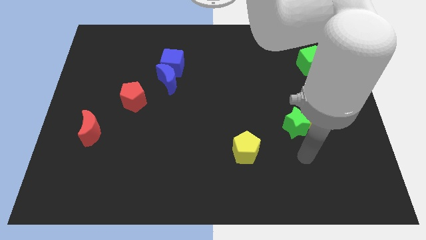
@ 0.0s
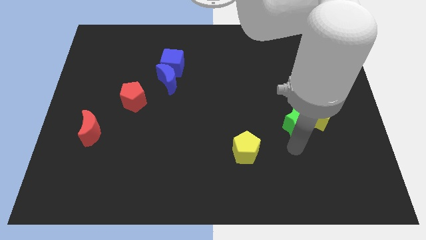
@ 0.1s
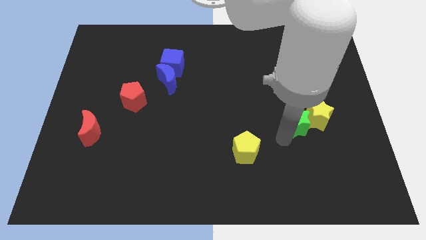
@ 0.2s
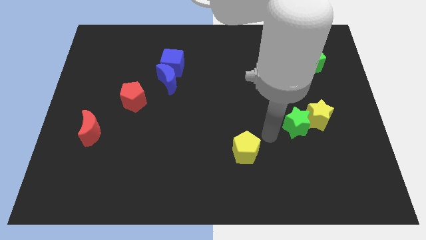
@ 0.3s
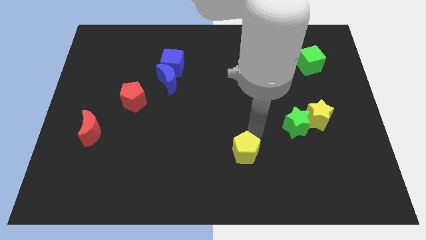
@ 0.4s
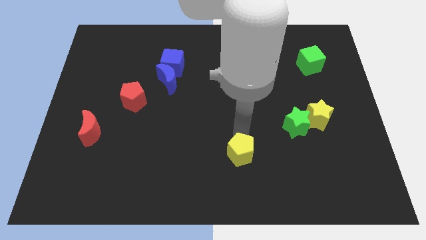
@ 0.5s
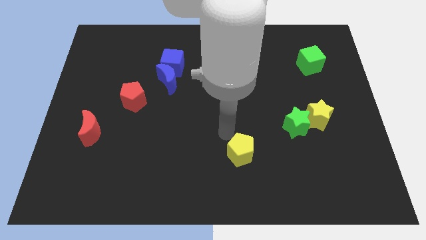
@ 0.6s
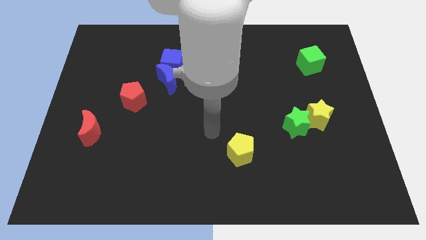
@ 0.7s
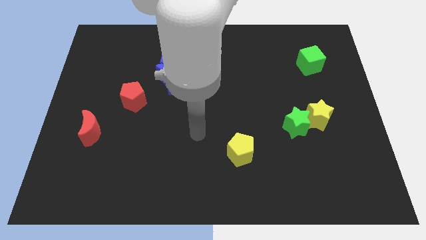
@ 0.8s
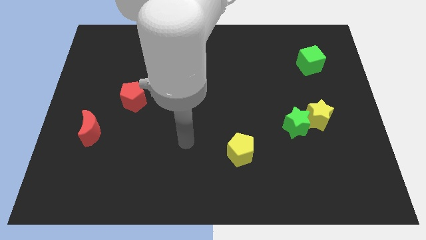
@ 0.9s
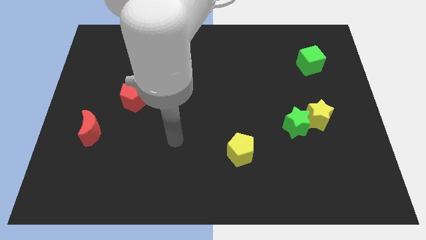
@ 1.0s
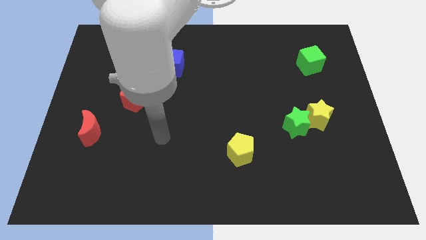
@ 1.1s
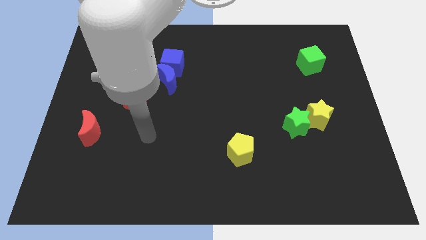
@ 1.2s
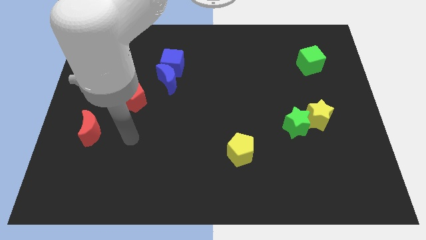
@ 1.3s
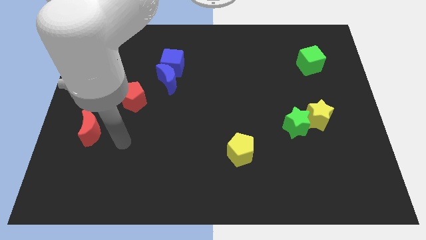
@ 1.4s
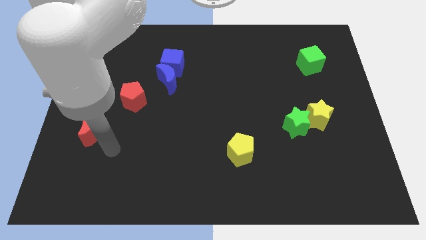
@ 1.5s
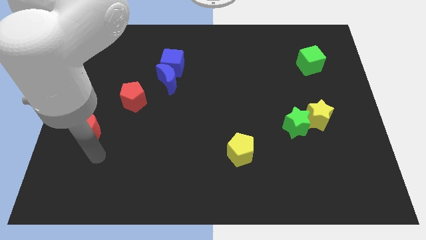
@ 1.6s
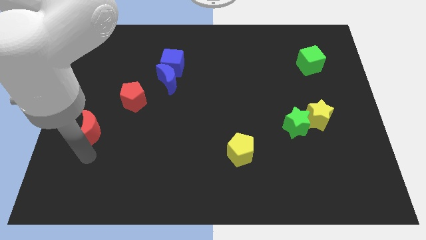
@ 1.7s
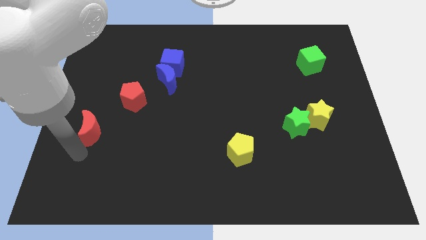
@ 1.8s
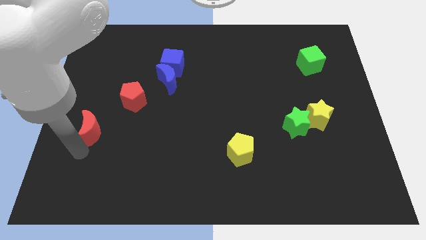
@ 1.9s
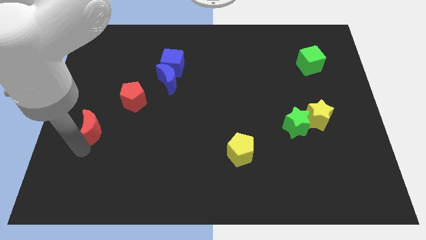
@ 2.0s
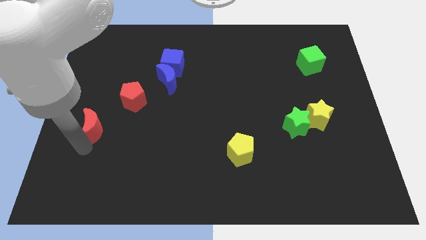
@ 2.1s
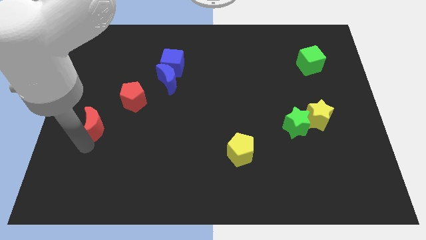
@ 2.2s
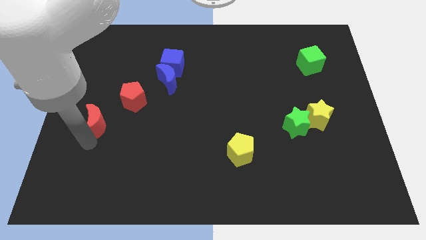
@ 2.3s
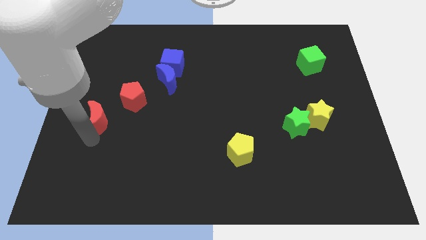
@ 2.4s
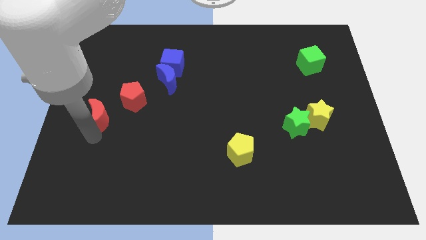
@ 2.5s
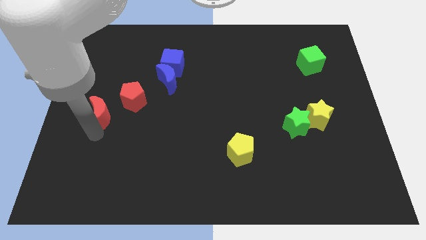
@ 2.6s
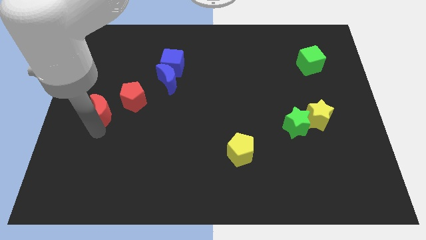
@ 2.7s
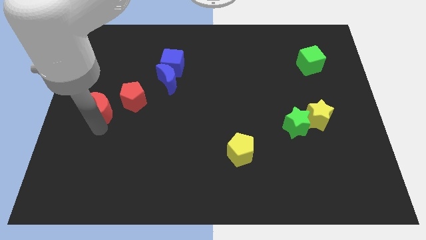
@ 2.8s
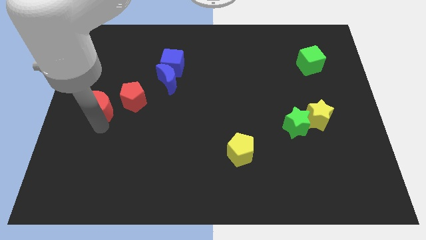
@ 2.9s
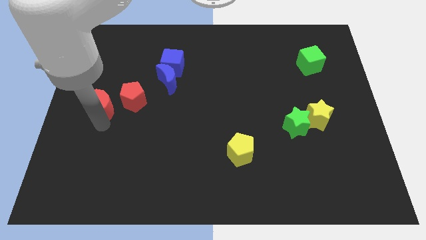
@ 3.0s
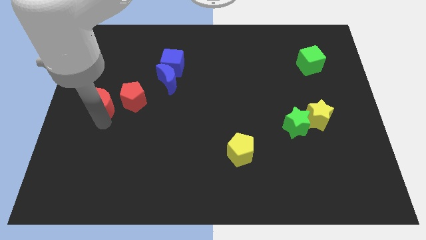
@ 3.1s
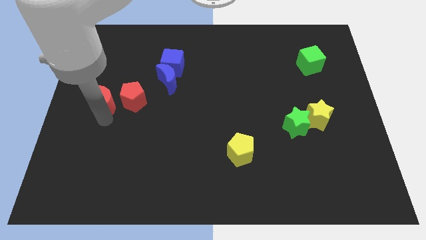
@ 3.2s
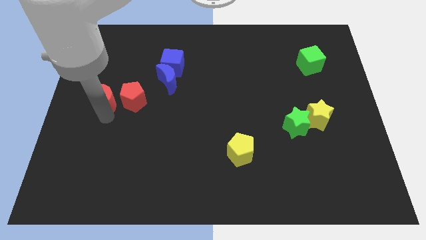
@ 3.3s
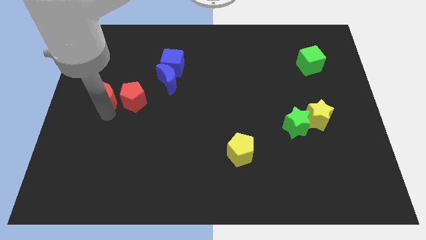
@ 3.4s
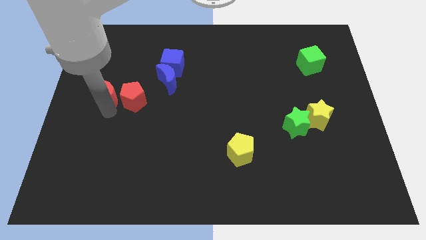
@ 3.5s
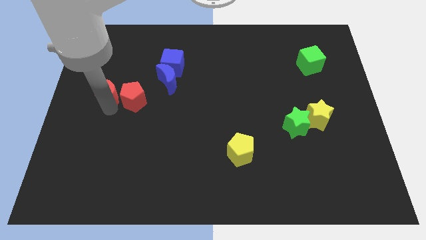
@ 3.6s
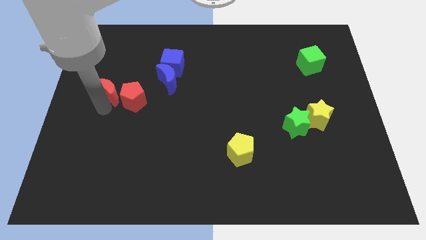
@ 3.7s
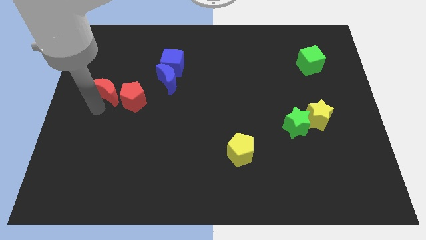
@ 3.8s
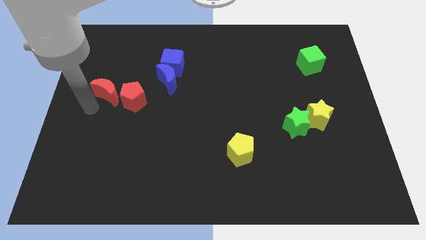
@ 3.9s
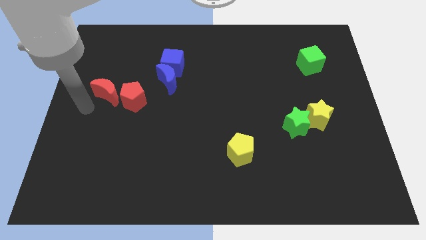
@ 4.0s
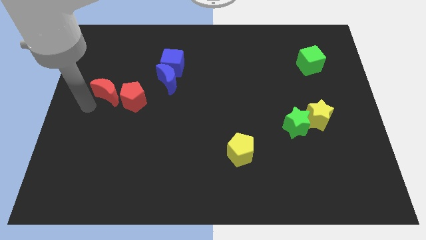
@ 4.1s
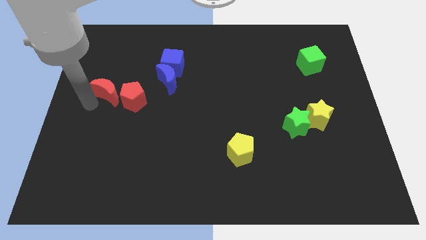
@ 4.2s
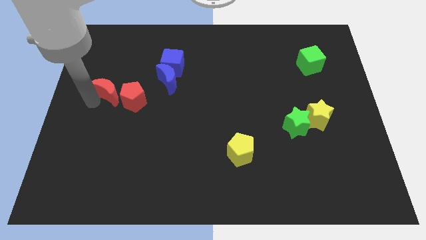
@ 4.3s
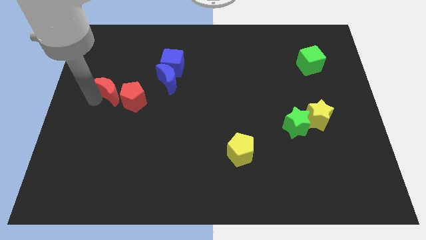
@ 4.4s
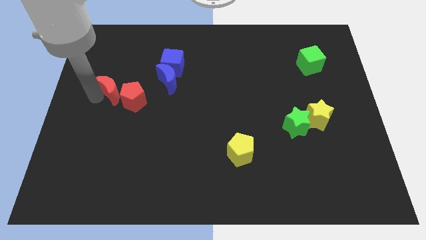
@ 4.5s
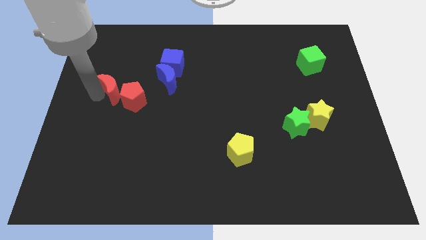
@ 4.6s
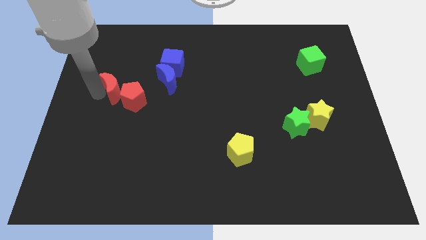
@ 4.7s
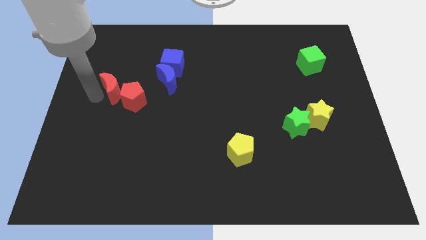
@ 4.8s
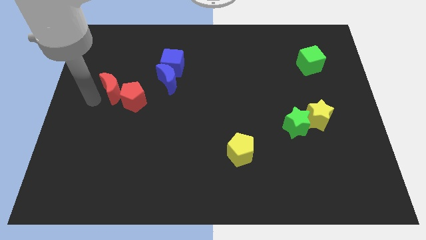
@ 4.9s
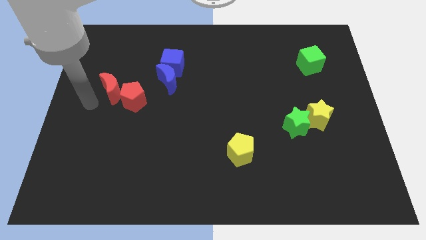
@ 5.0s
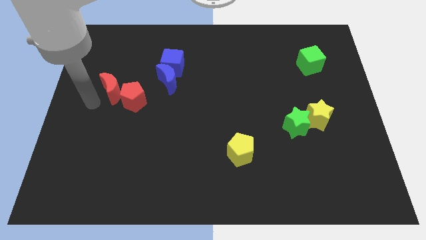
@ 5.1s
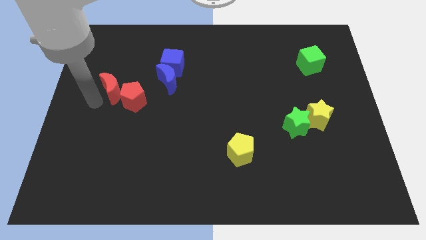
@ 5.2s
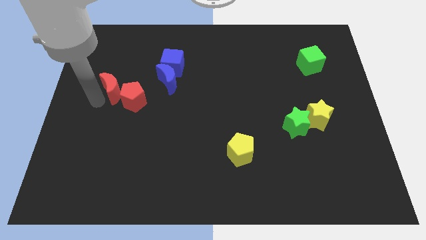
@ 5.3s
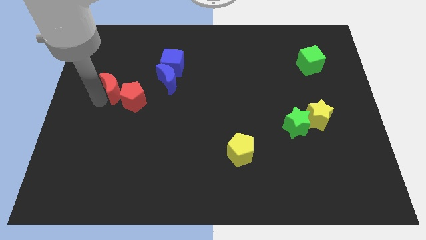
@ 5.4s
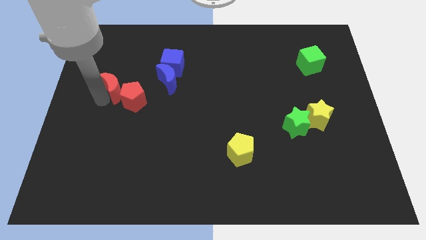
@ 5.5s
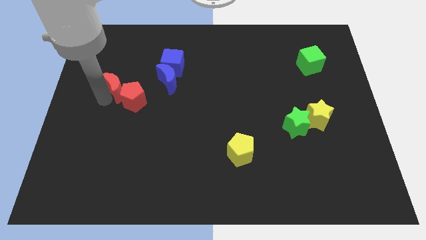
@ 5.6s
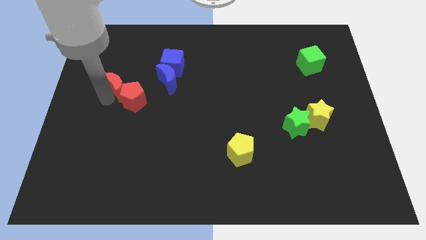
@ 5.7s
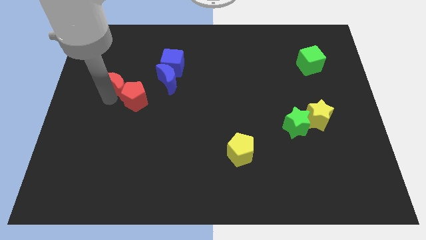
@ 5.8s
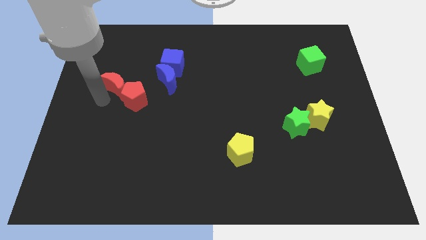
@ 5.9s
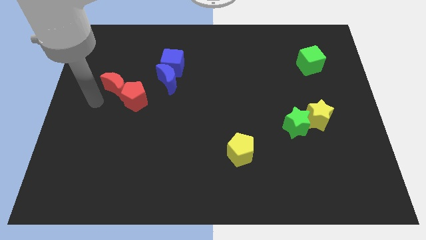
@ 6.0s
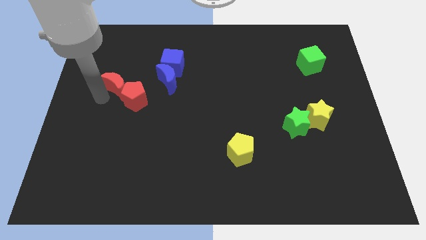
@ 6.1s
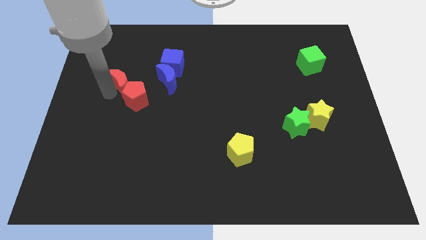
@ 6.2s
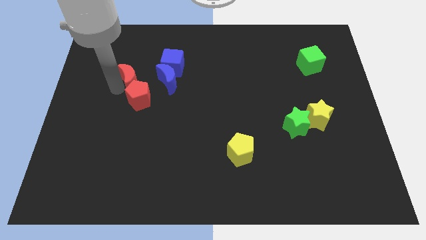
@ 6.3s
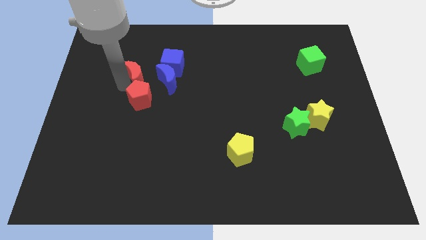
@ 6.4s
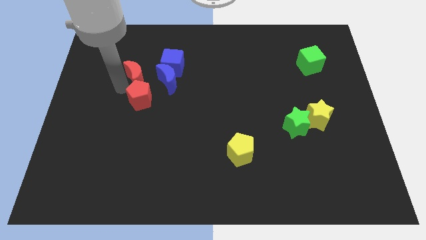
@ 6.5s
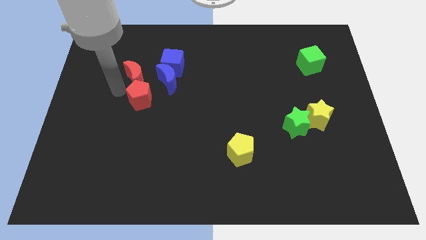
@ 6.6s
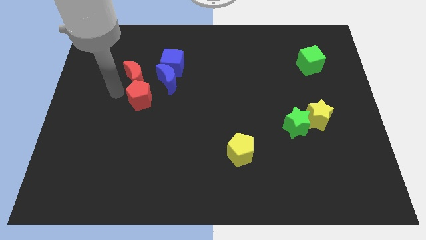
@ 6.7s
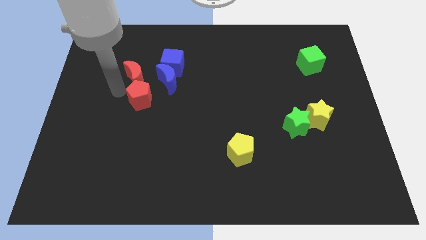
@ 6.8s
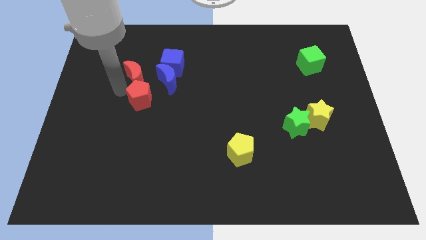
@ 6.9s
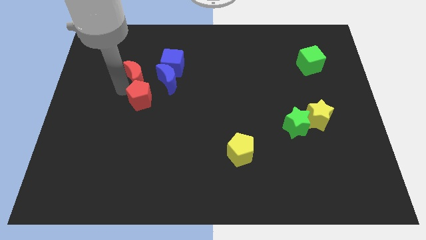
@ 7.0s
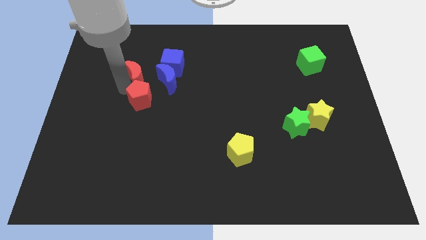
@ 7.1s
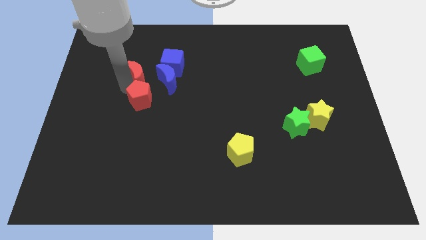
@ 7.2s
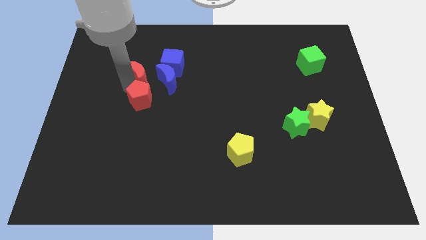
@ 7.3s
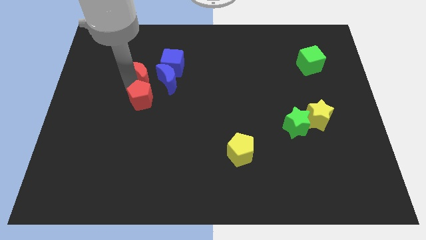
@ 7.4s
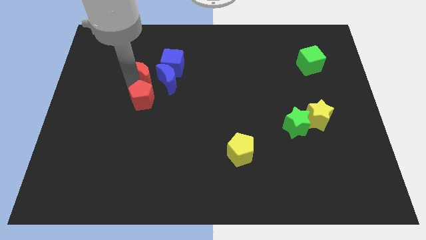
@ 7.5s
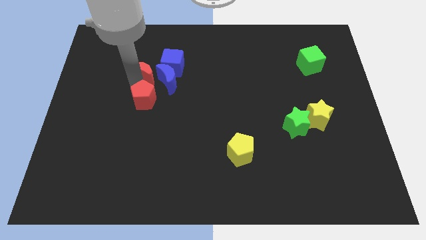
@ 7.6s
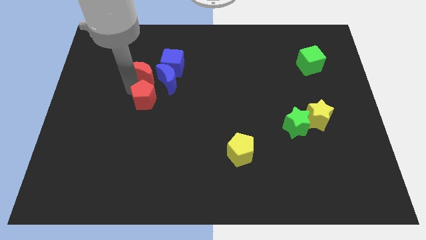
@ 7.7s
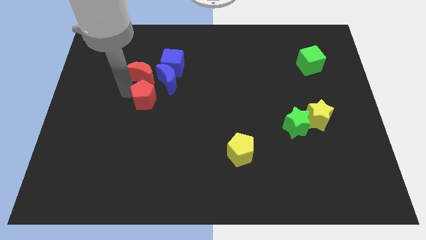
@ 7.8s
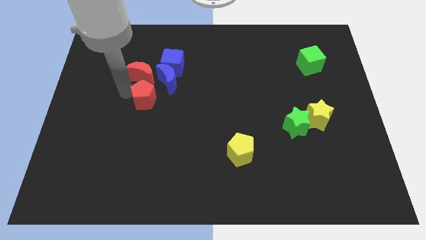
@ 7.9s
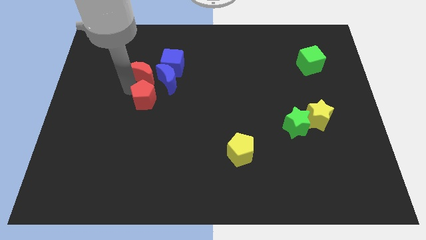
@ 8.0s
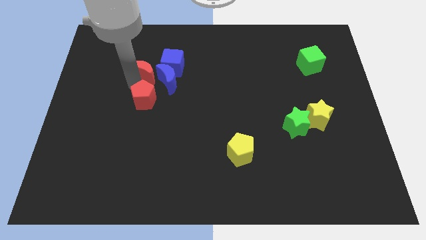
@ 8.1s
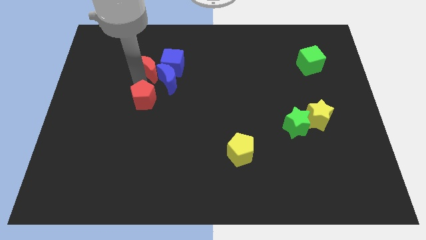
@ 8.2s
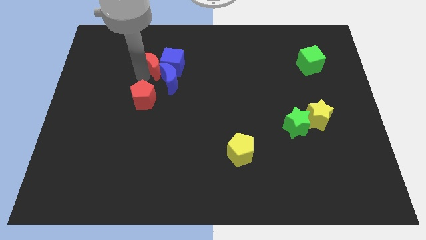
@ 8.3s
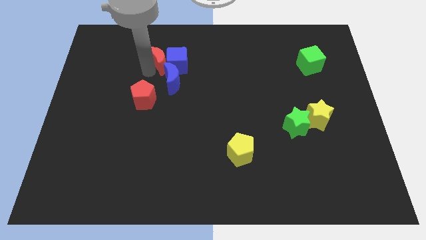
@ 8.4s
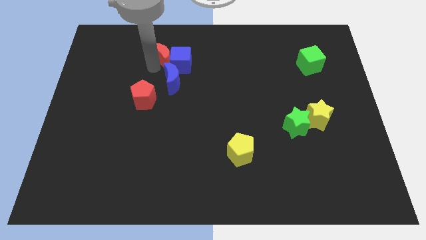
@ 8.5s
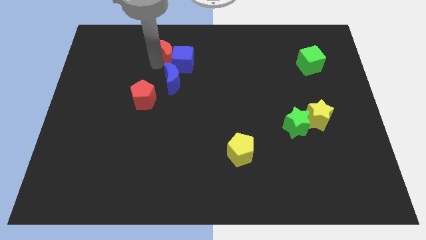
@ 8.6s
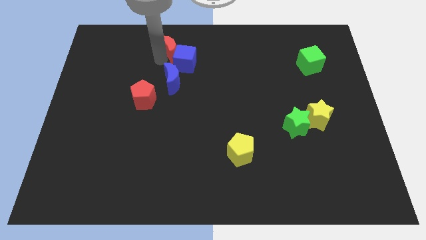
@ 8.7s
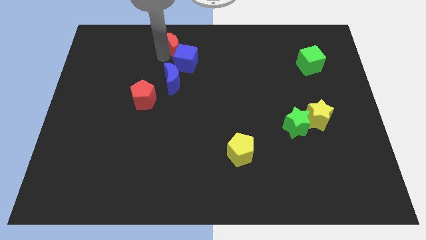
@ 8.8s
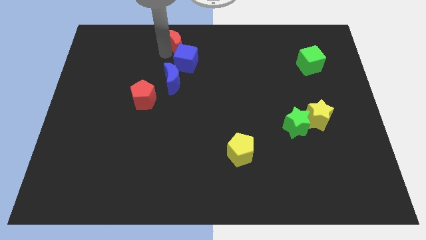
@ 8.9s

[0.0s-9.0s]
put the red moon to the towards your base
